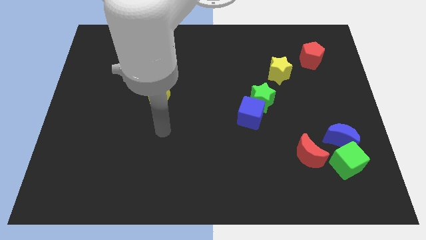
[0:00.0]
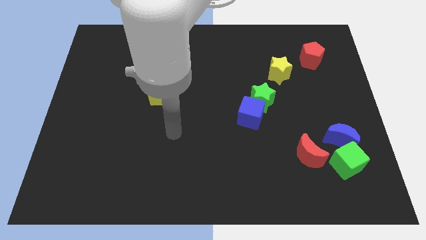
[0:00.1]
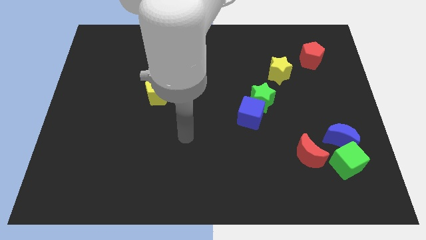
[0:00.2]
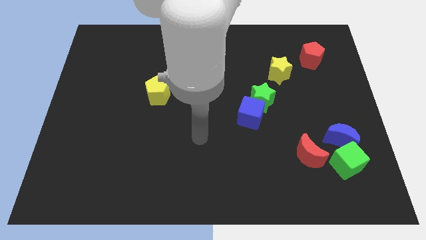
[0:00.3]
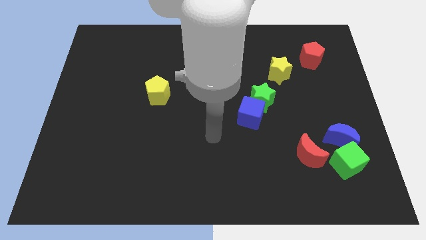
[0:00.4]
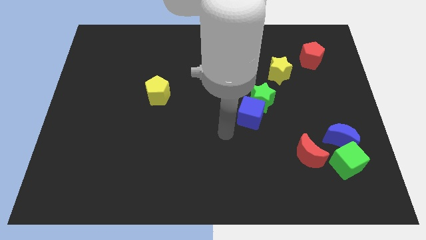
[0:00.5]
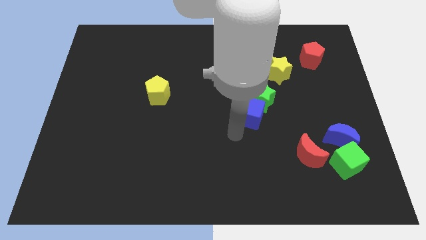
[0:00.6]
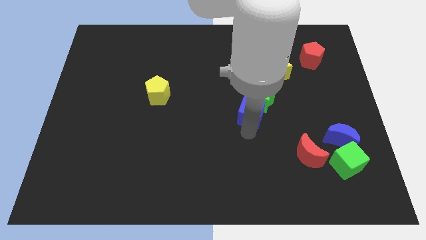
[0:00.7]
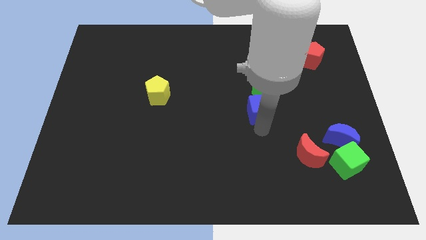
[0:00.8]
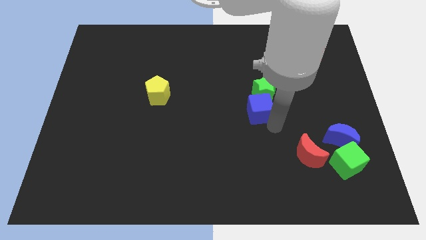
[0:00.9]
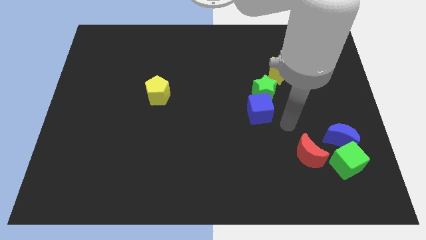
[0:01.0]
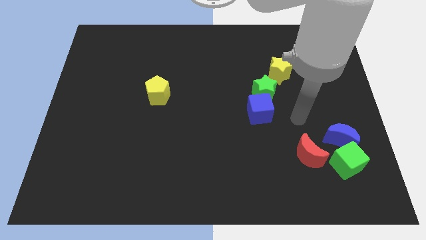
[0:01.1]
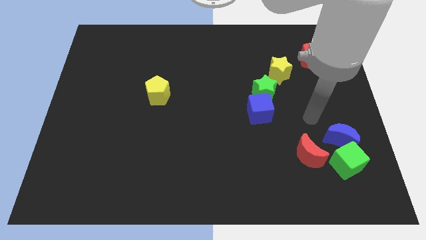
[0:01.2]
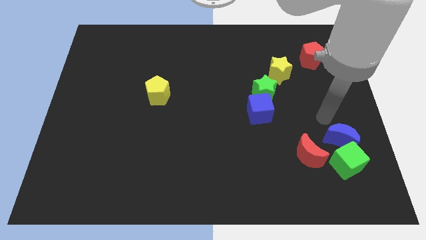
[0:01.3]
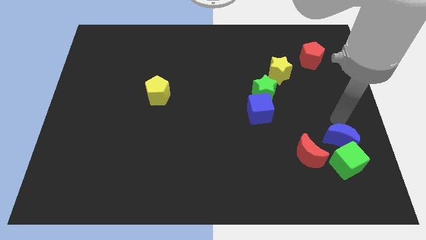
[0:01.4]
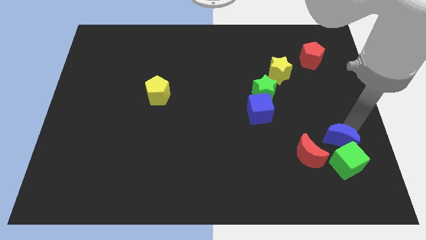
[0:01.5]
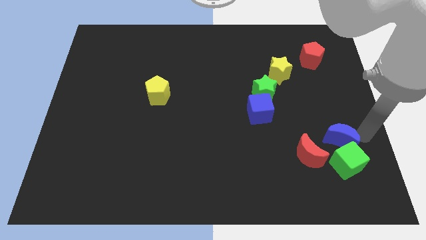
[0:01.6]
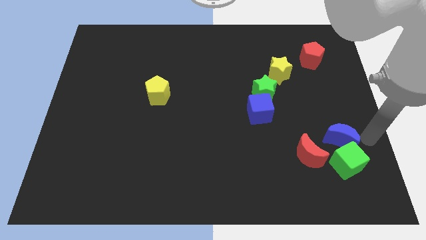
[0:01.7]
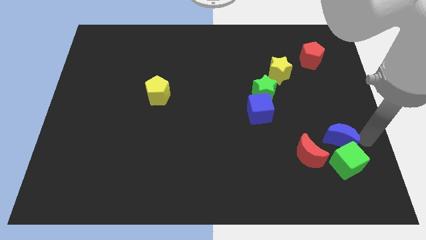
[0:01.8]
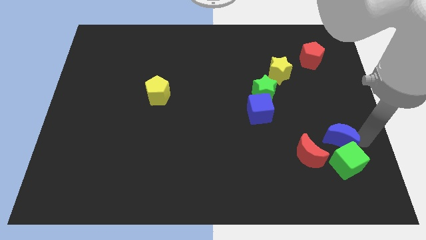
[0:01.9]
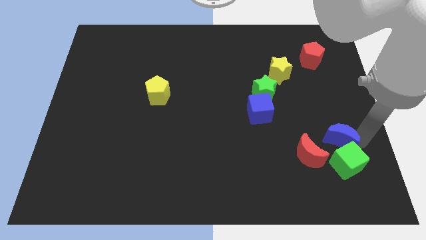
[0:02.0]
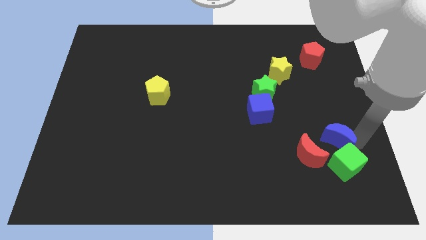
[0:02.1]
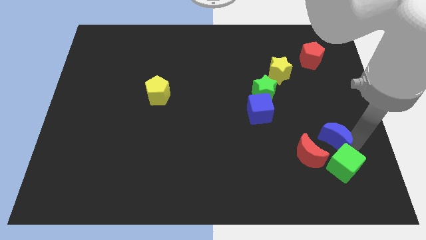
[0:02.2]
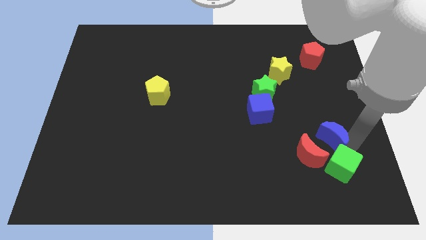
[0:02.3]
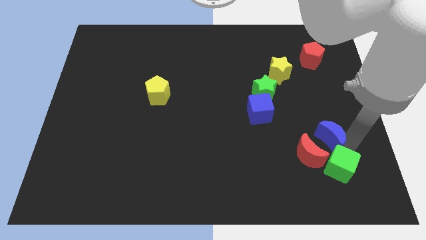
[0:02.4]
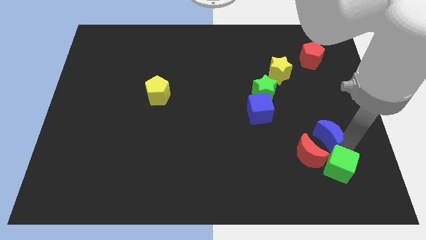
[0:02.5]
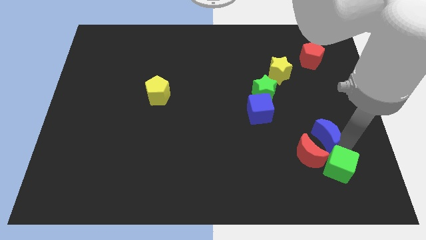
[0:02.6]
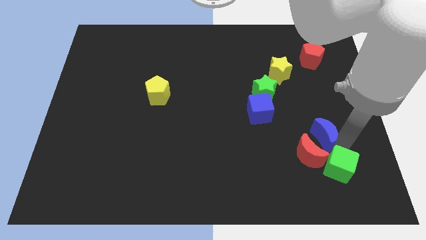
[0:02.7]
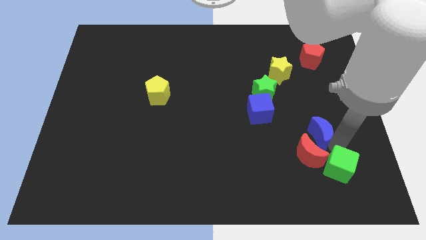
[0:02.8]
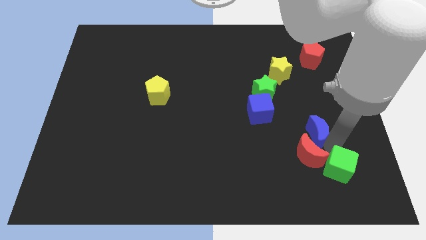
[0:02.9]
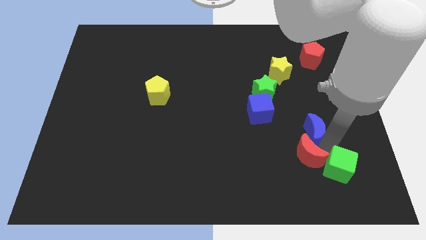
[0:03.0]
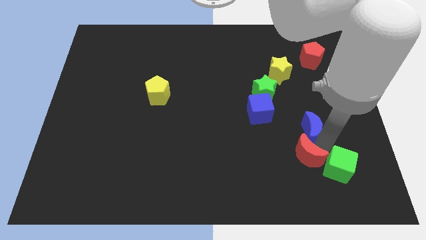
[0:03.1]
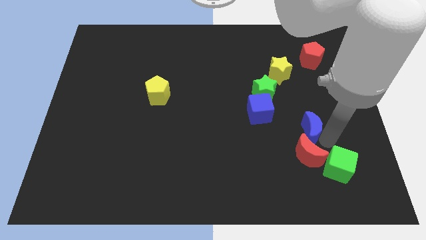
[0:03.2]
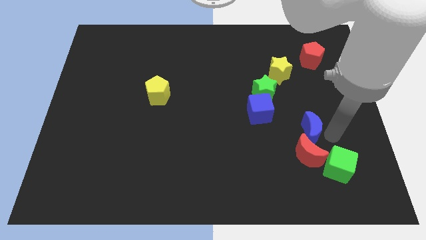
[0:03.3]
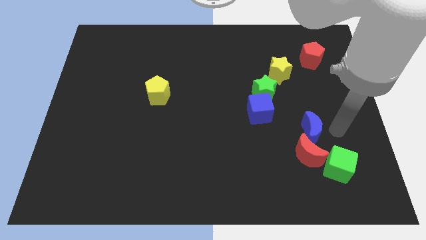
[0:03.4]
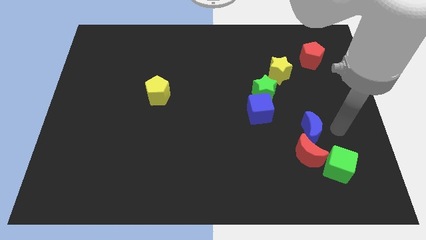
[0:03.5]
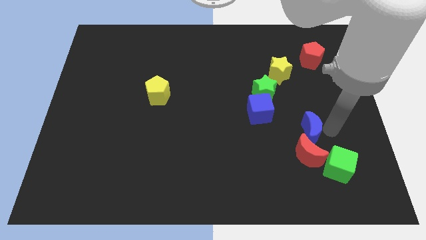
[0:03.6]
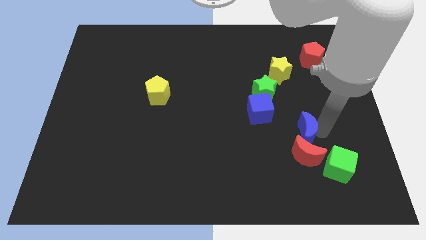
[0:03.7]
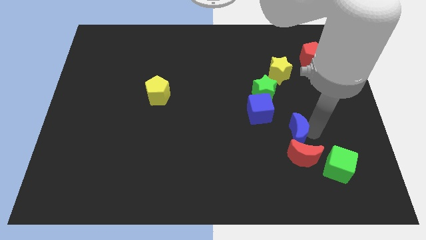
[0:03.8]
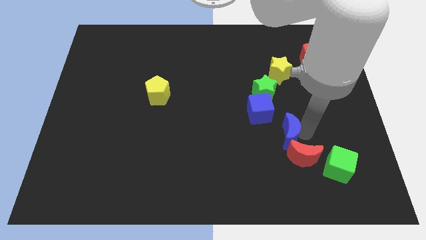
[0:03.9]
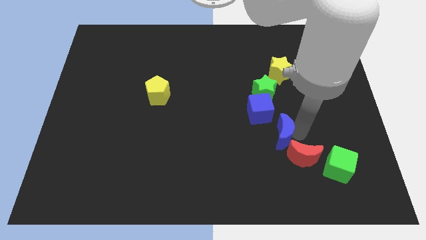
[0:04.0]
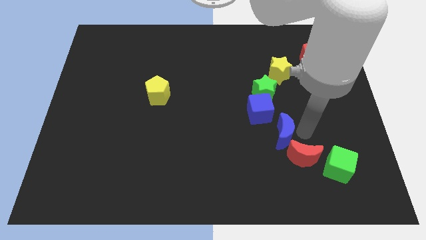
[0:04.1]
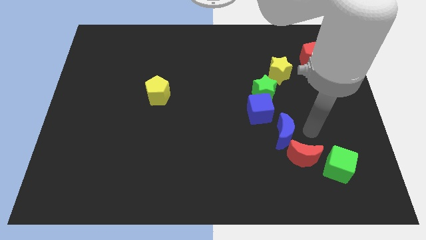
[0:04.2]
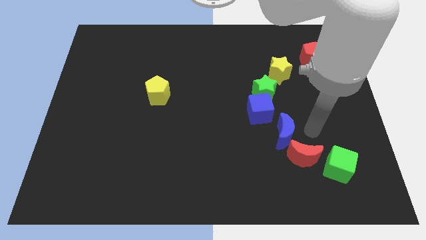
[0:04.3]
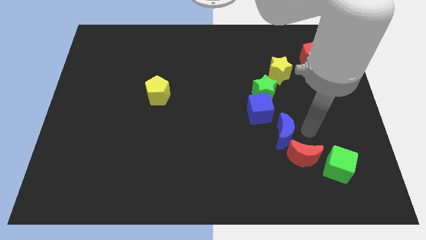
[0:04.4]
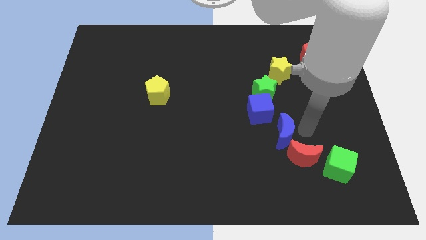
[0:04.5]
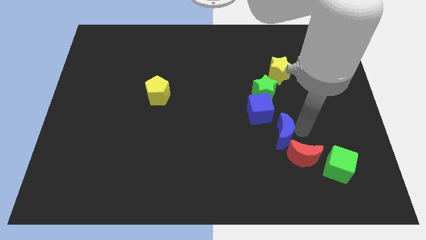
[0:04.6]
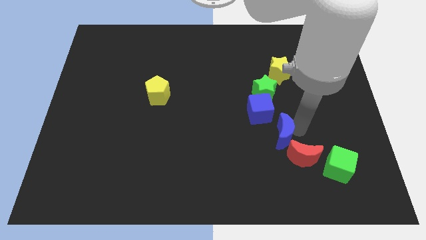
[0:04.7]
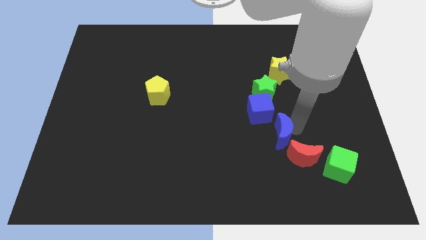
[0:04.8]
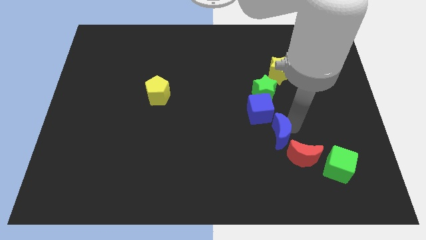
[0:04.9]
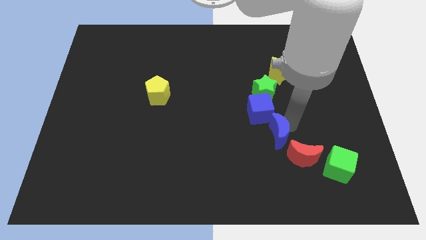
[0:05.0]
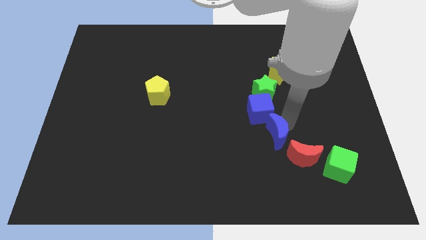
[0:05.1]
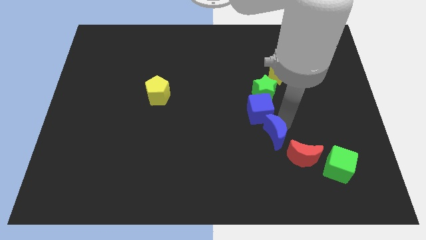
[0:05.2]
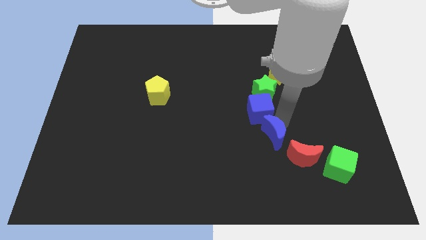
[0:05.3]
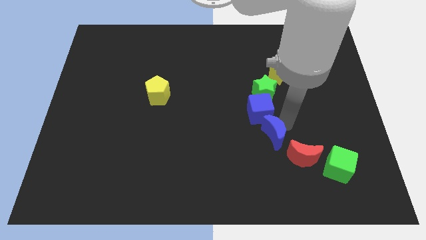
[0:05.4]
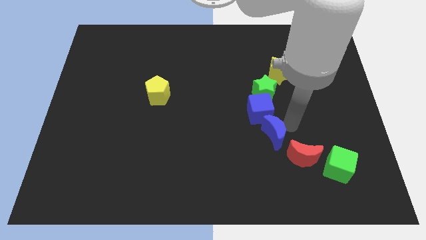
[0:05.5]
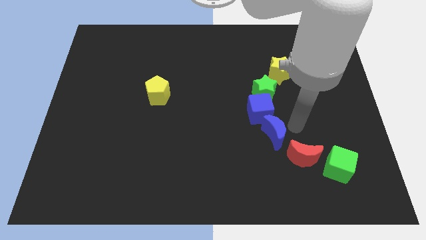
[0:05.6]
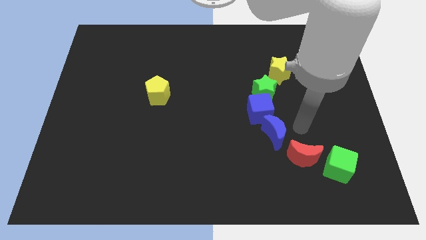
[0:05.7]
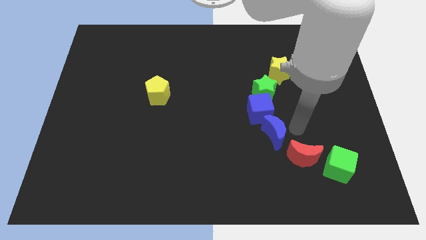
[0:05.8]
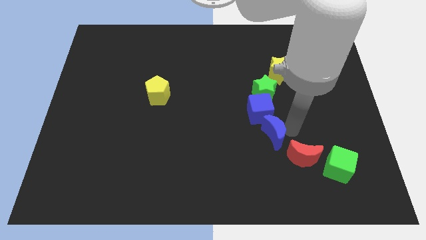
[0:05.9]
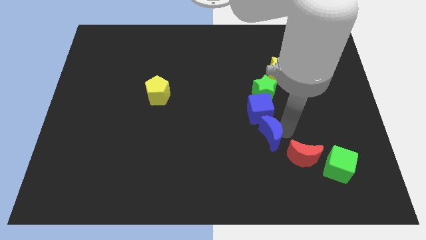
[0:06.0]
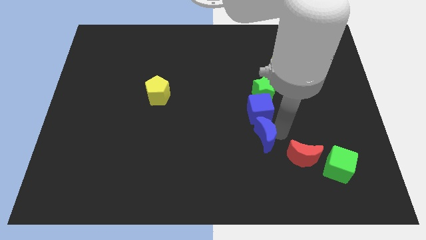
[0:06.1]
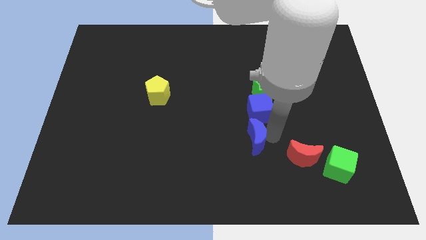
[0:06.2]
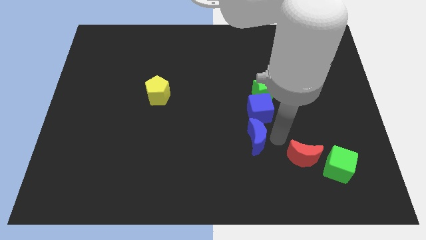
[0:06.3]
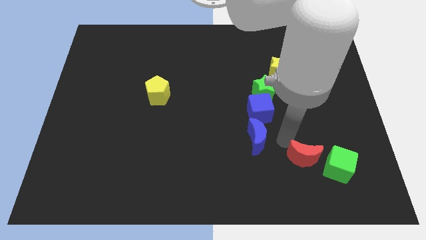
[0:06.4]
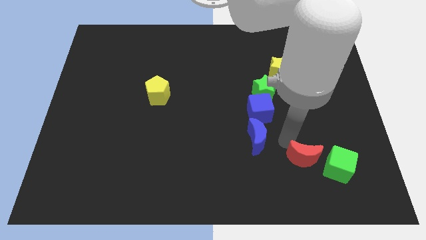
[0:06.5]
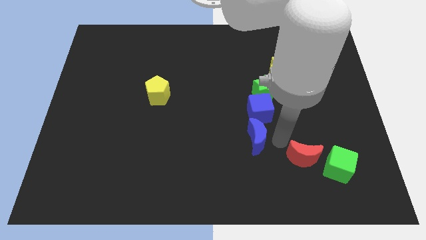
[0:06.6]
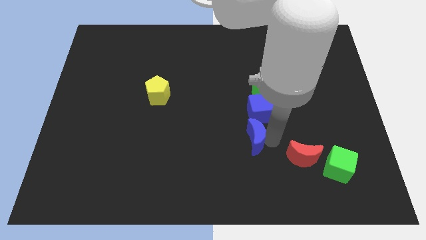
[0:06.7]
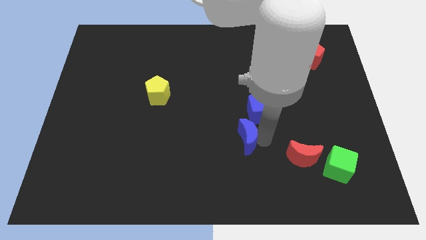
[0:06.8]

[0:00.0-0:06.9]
slide the blue moon to the left

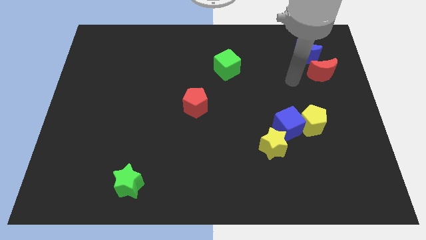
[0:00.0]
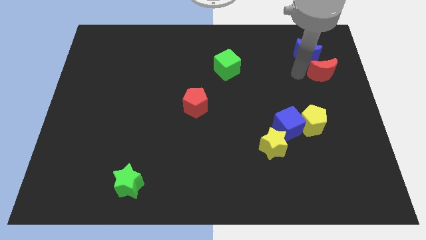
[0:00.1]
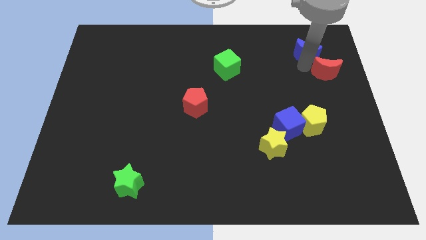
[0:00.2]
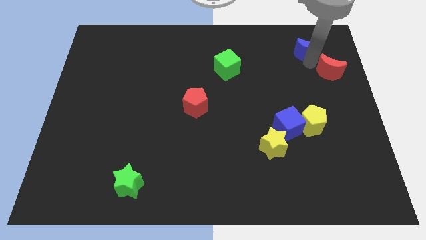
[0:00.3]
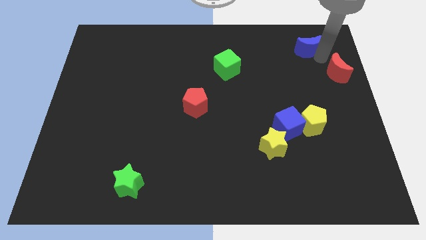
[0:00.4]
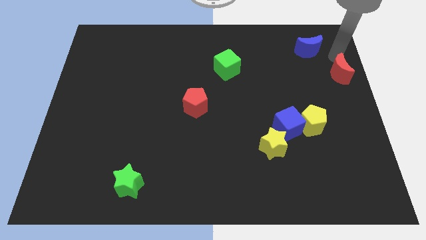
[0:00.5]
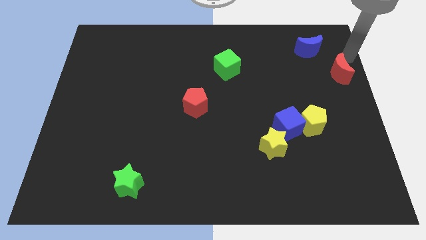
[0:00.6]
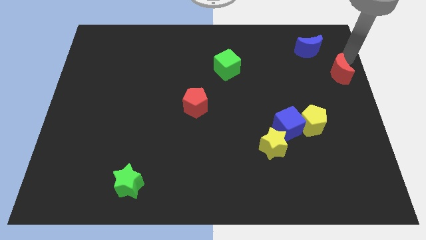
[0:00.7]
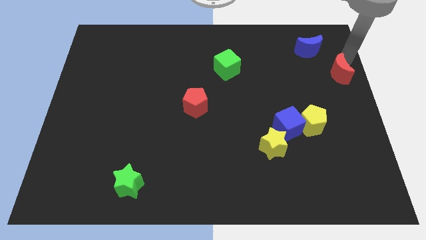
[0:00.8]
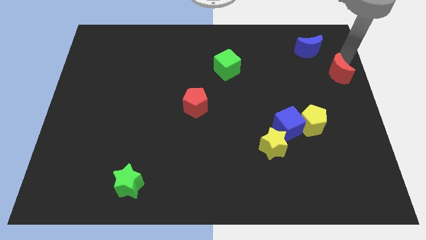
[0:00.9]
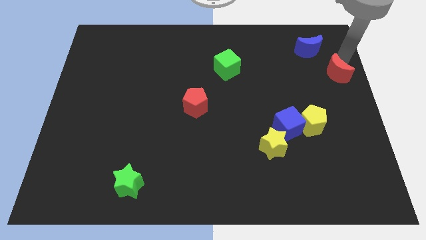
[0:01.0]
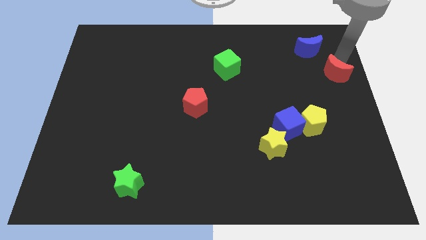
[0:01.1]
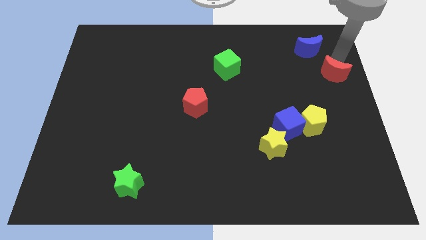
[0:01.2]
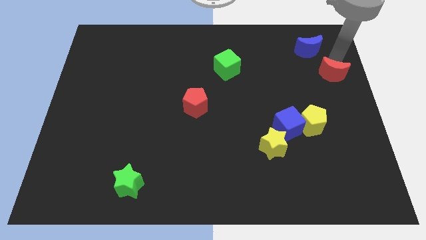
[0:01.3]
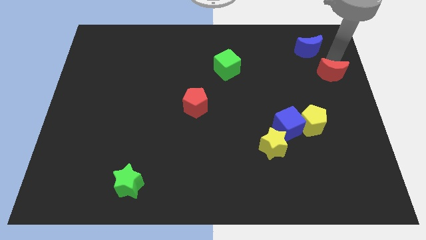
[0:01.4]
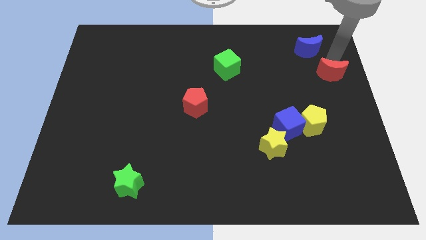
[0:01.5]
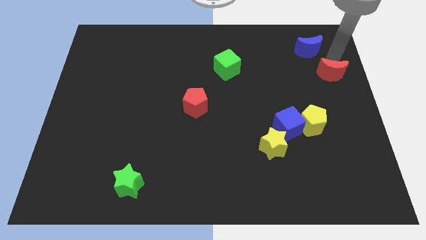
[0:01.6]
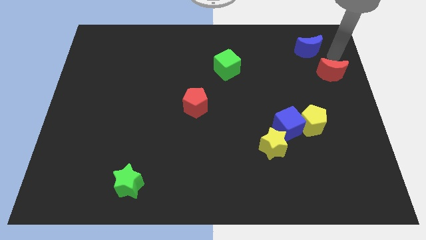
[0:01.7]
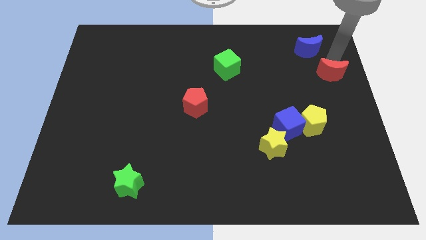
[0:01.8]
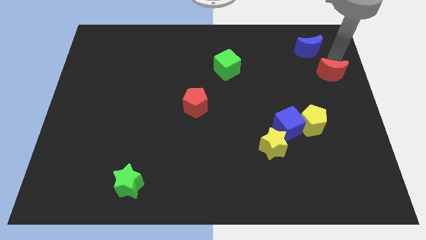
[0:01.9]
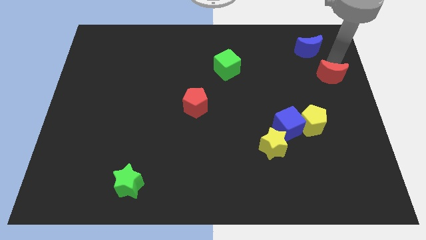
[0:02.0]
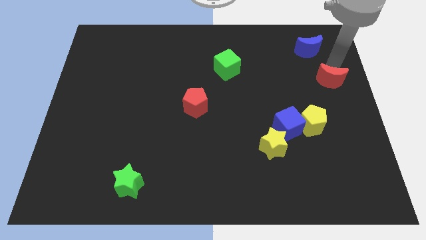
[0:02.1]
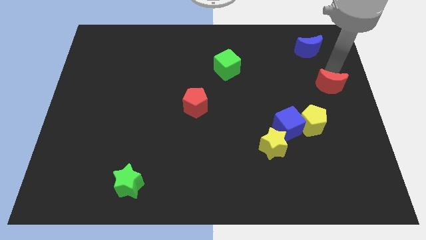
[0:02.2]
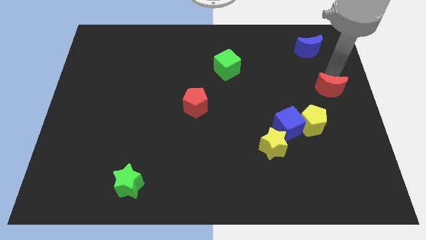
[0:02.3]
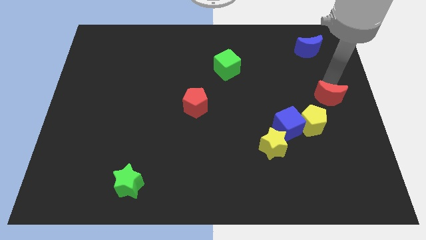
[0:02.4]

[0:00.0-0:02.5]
move the red moon down slightly
